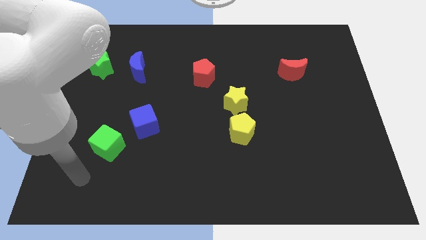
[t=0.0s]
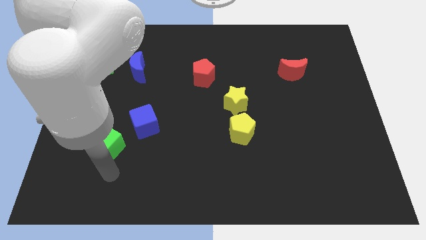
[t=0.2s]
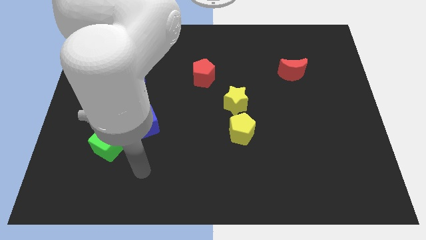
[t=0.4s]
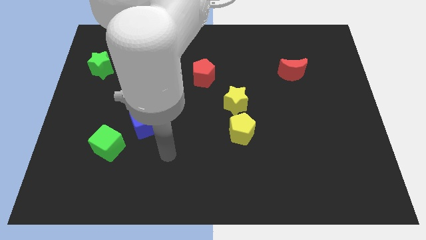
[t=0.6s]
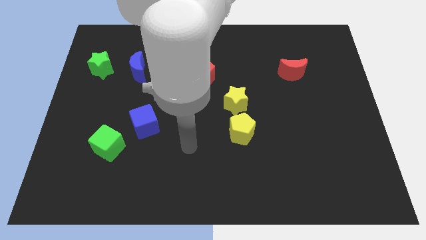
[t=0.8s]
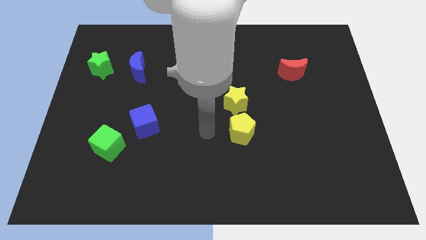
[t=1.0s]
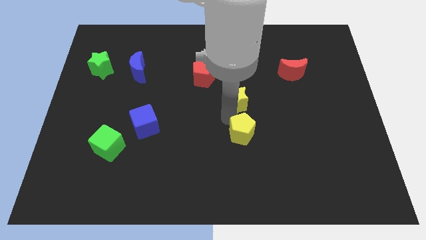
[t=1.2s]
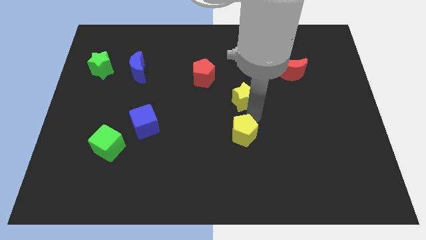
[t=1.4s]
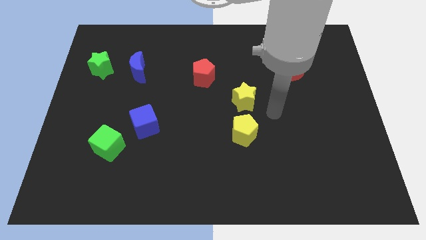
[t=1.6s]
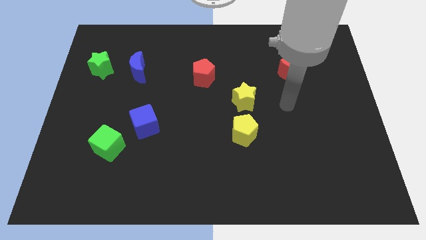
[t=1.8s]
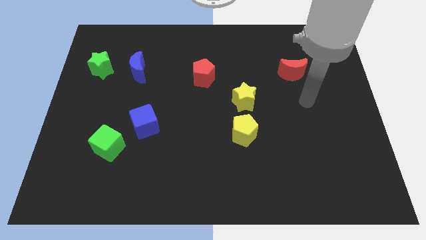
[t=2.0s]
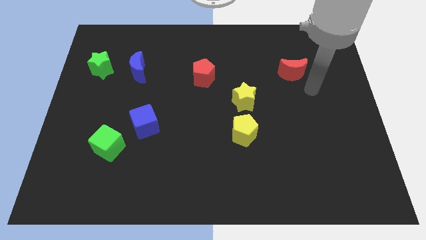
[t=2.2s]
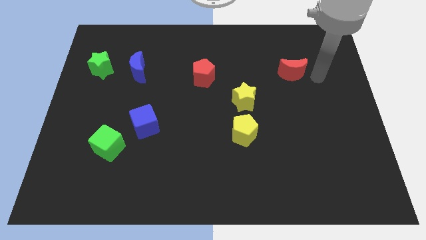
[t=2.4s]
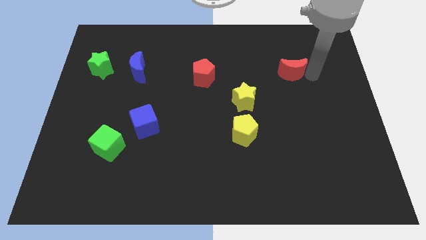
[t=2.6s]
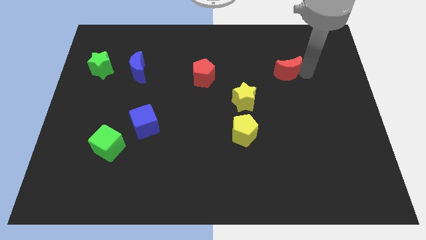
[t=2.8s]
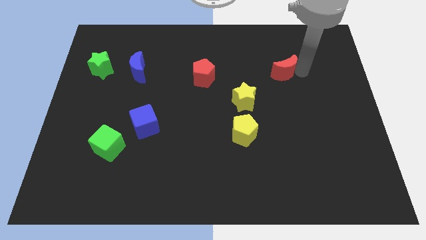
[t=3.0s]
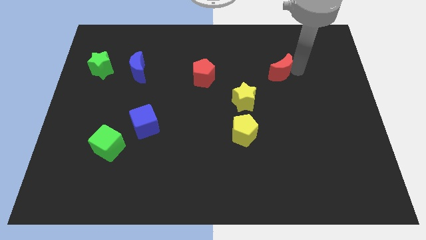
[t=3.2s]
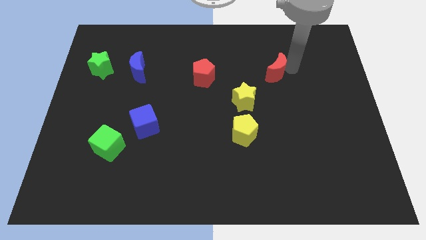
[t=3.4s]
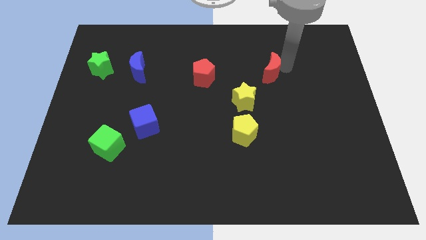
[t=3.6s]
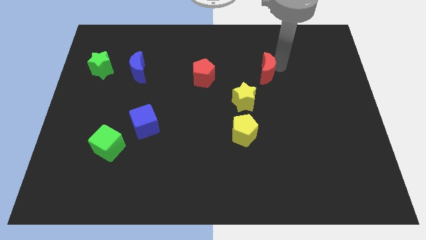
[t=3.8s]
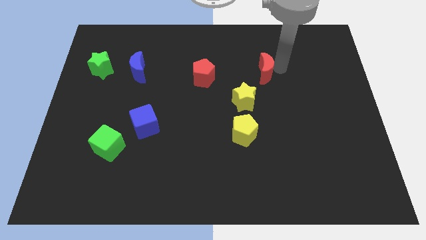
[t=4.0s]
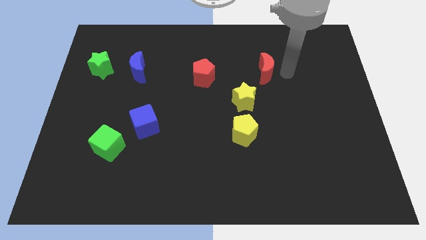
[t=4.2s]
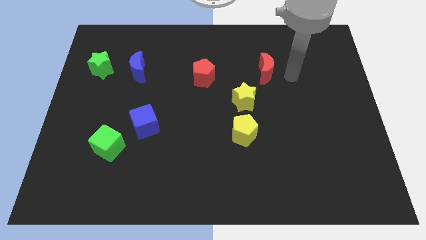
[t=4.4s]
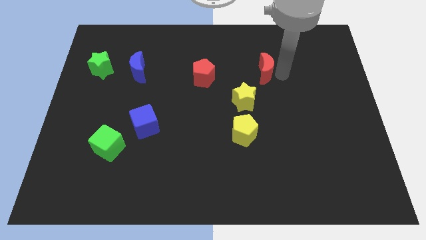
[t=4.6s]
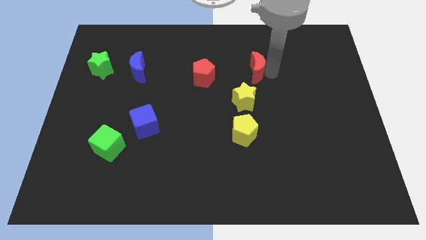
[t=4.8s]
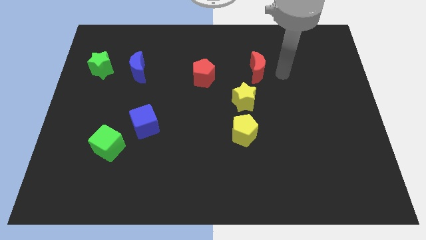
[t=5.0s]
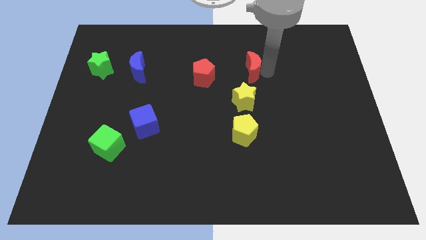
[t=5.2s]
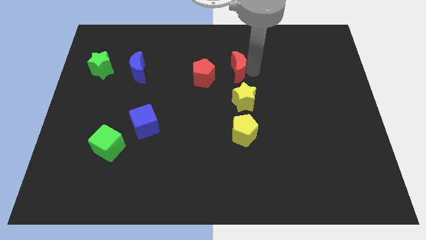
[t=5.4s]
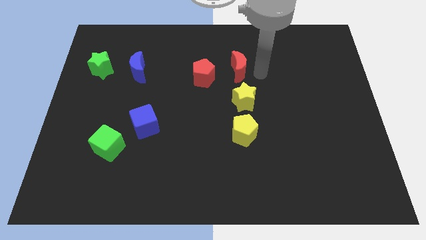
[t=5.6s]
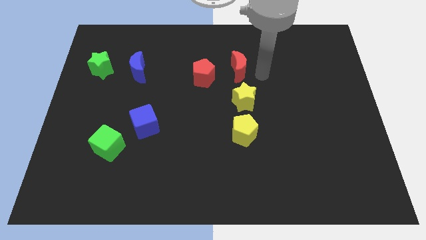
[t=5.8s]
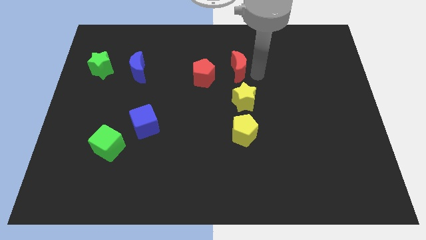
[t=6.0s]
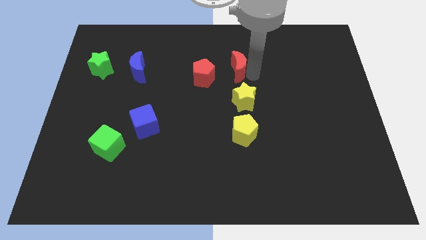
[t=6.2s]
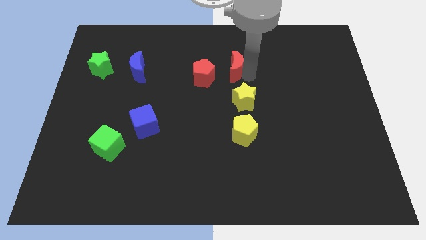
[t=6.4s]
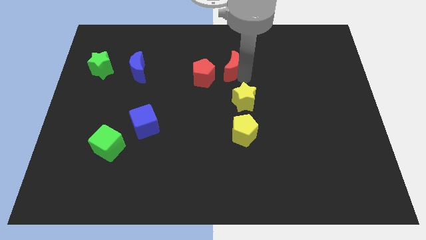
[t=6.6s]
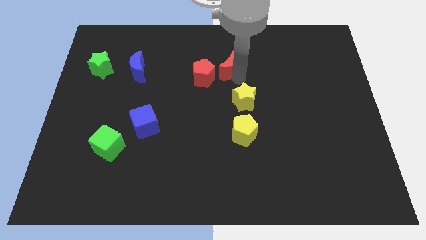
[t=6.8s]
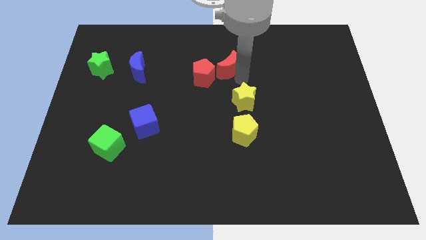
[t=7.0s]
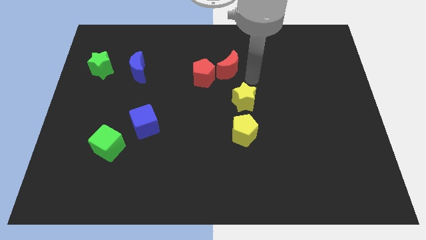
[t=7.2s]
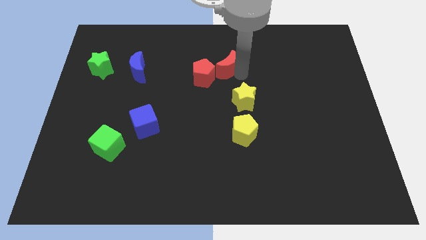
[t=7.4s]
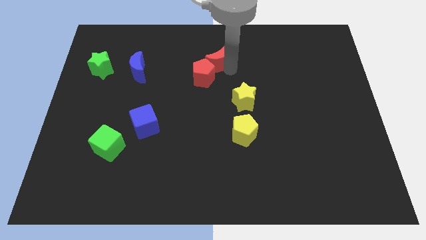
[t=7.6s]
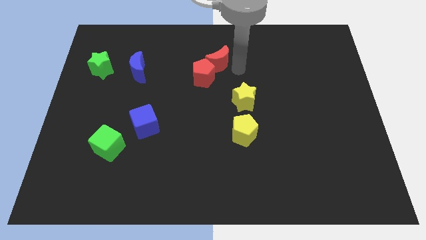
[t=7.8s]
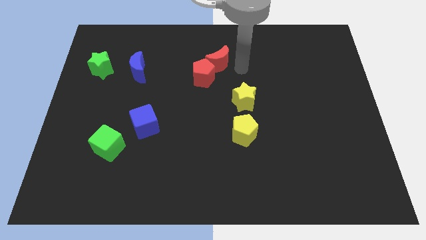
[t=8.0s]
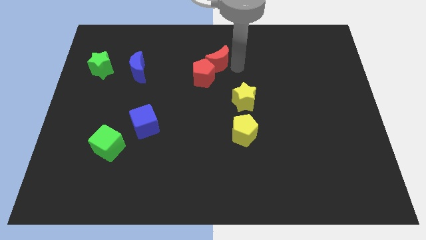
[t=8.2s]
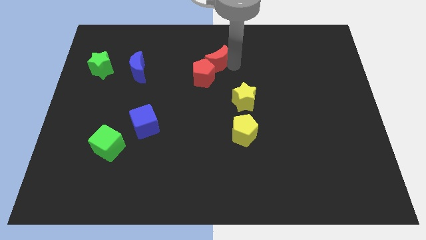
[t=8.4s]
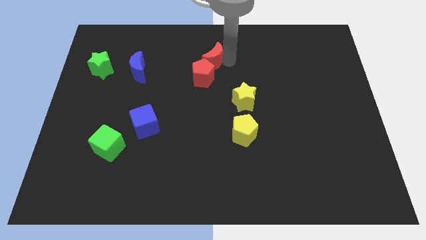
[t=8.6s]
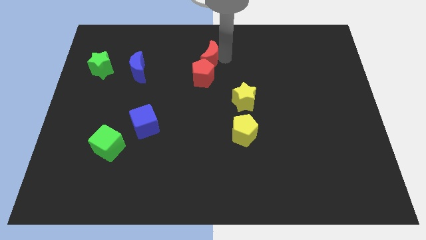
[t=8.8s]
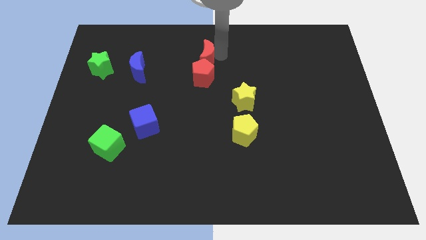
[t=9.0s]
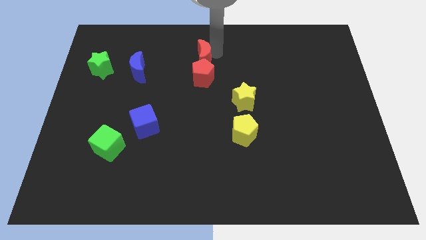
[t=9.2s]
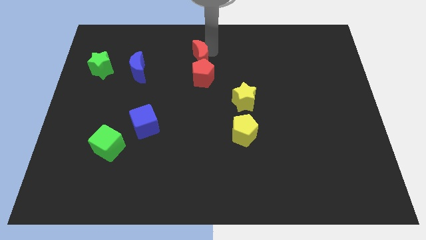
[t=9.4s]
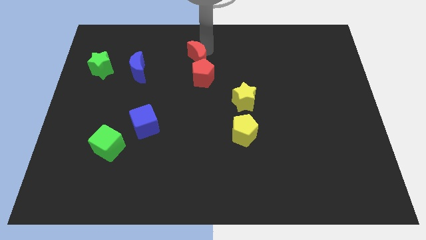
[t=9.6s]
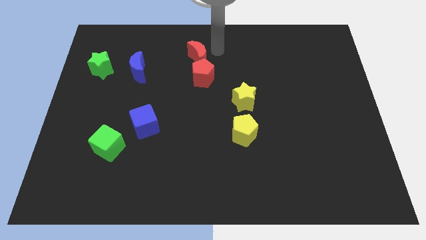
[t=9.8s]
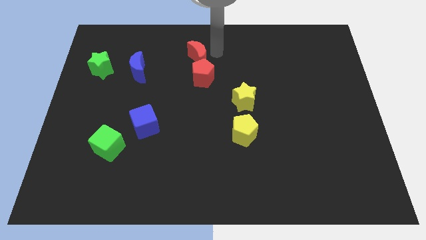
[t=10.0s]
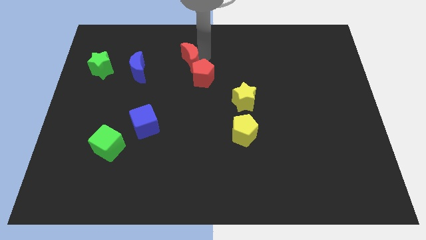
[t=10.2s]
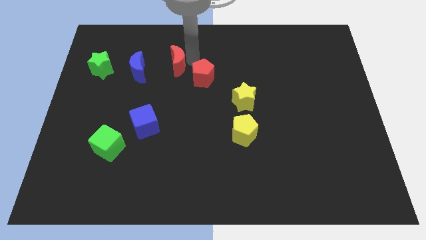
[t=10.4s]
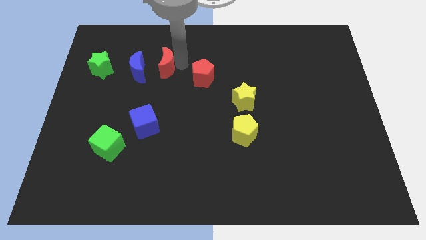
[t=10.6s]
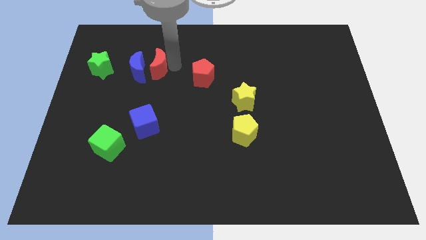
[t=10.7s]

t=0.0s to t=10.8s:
move the red moon next to the blue moon

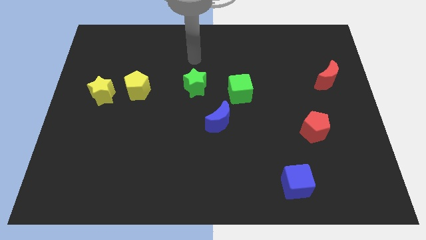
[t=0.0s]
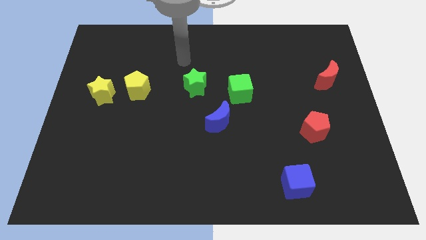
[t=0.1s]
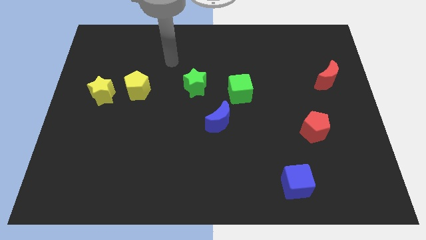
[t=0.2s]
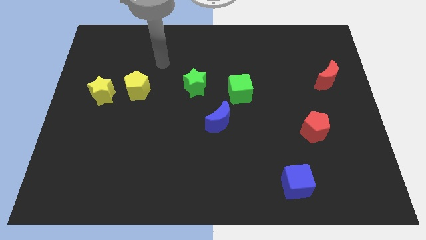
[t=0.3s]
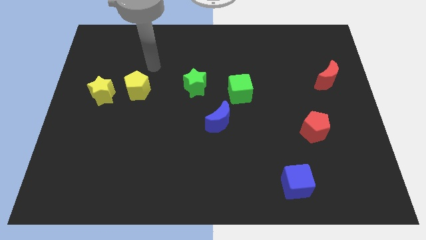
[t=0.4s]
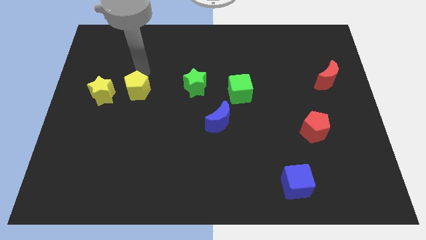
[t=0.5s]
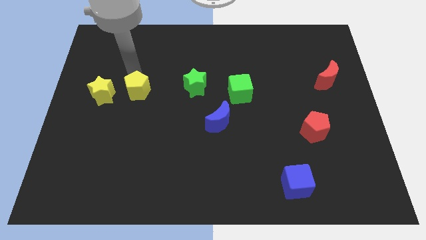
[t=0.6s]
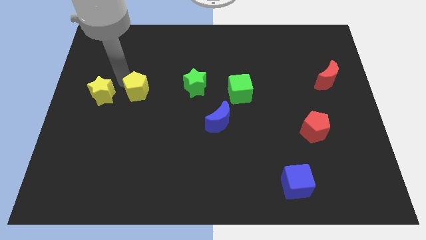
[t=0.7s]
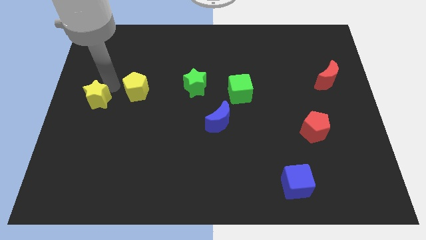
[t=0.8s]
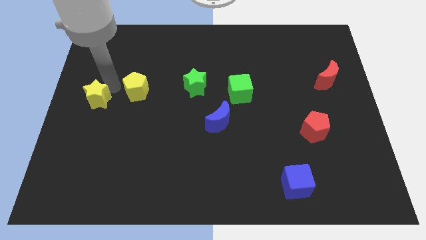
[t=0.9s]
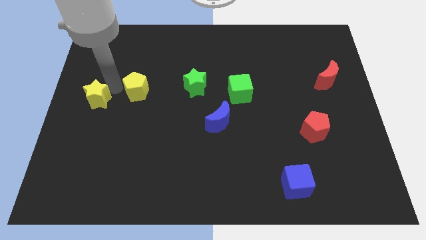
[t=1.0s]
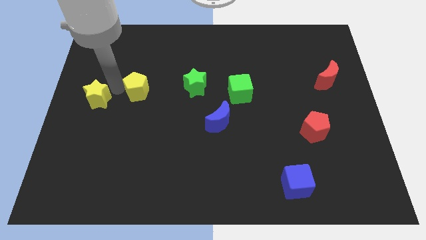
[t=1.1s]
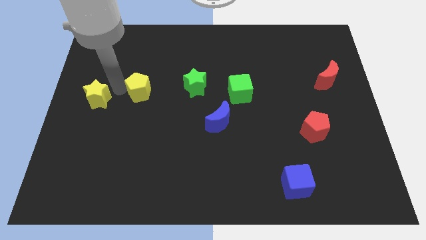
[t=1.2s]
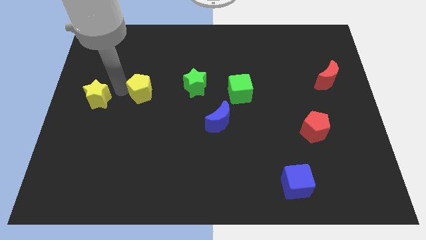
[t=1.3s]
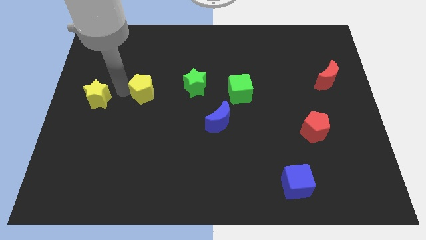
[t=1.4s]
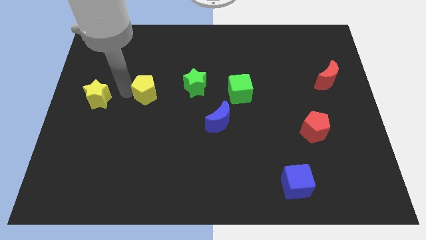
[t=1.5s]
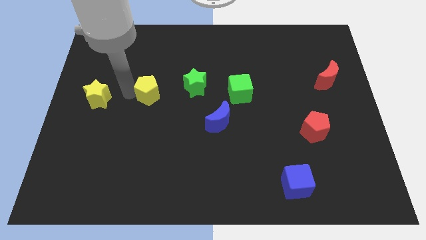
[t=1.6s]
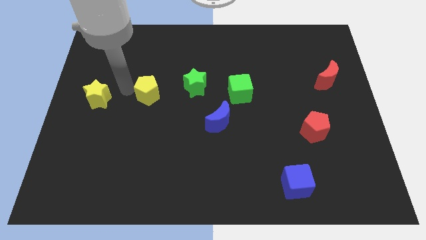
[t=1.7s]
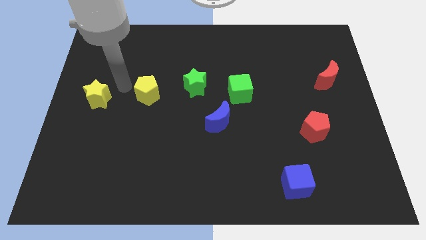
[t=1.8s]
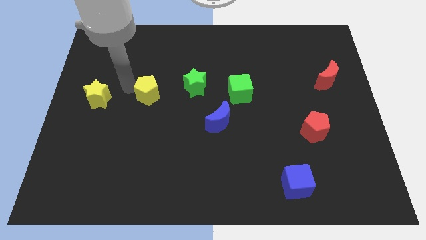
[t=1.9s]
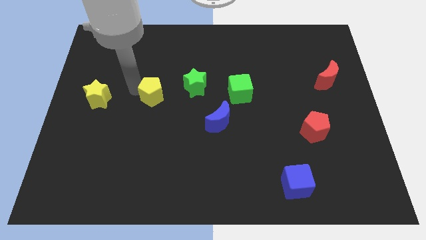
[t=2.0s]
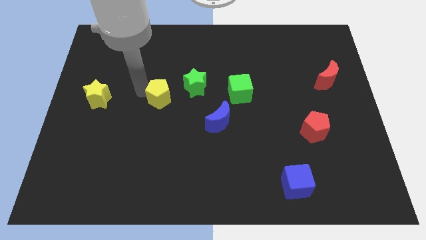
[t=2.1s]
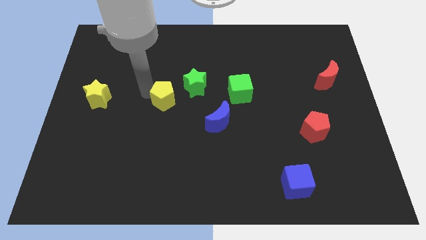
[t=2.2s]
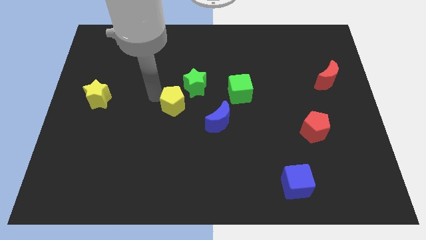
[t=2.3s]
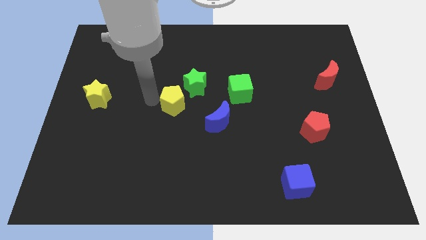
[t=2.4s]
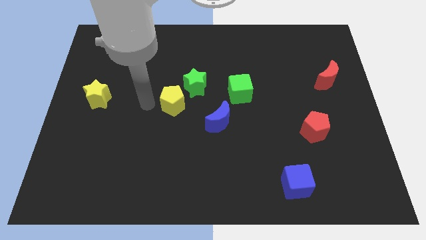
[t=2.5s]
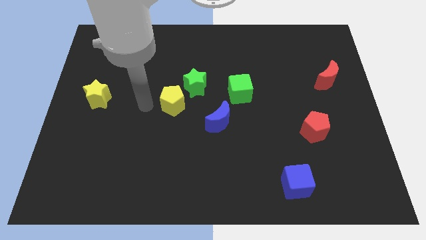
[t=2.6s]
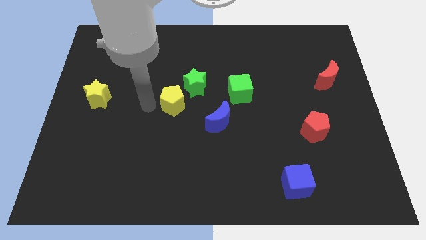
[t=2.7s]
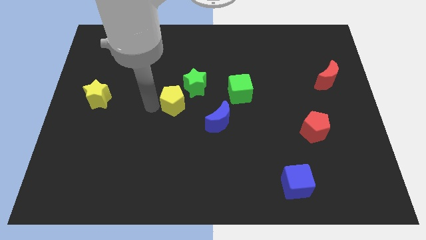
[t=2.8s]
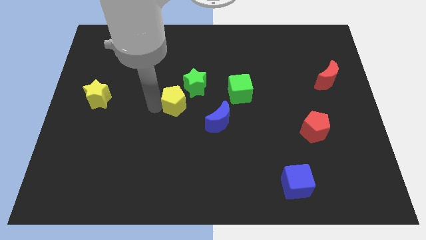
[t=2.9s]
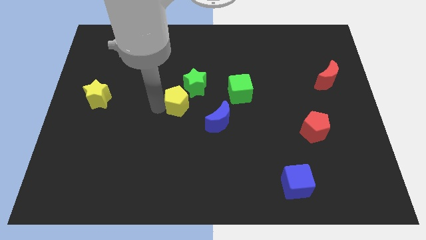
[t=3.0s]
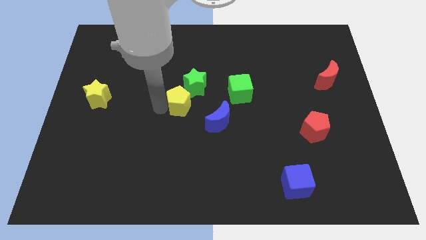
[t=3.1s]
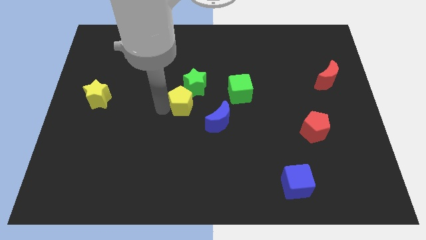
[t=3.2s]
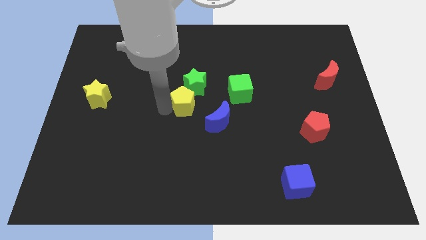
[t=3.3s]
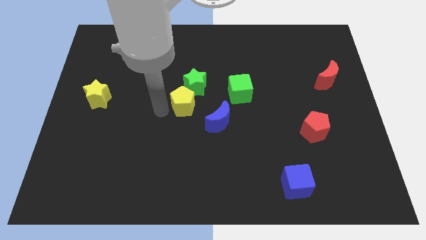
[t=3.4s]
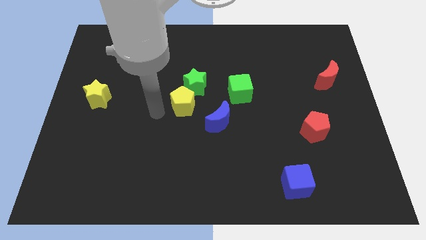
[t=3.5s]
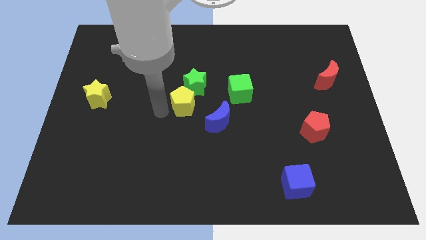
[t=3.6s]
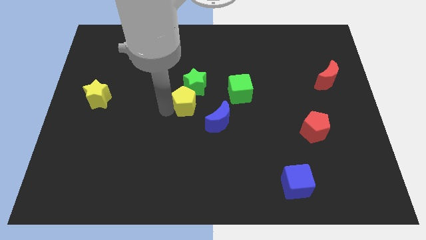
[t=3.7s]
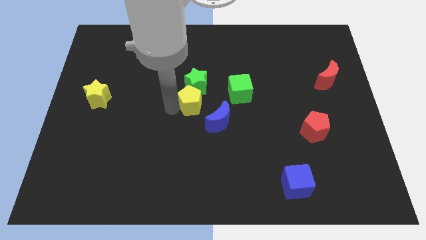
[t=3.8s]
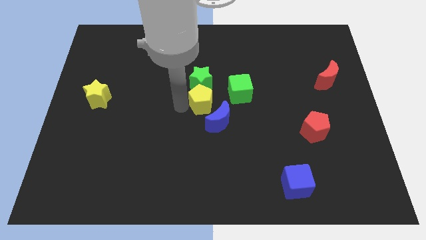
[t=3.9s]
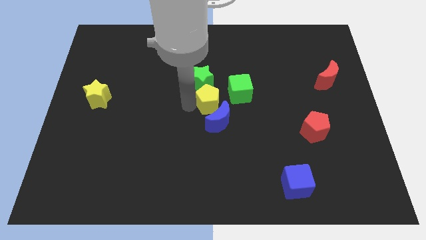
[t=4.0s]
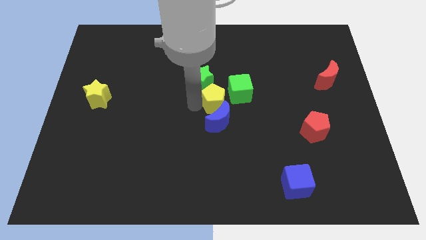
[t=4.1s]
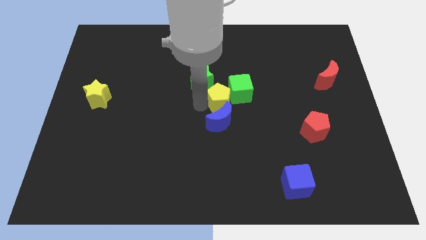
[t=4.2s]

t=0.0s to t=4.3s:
push the yellow pentagon close to the green cube
